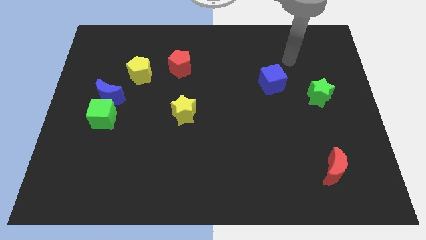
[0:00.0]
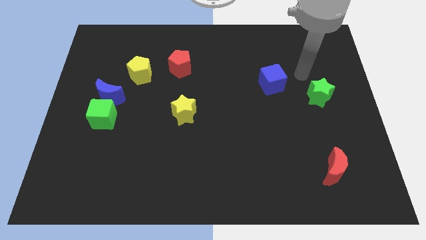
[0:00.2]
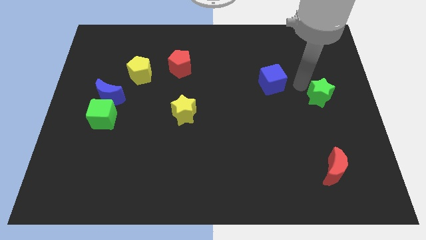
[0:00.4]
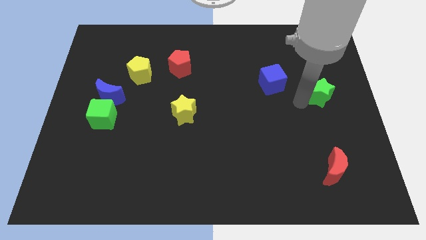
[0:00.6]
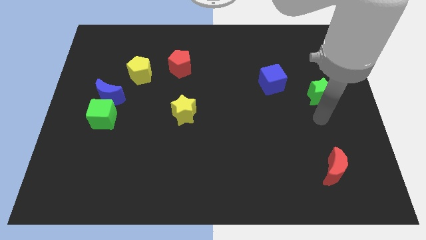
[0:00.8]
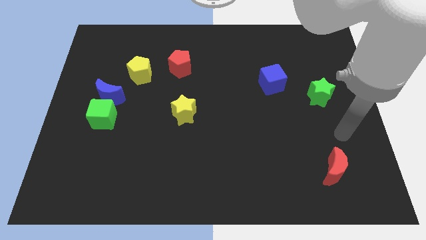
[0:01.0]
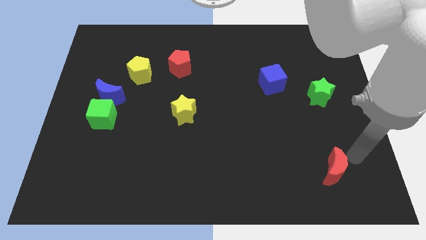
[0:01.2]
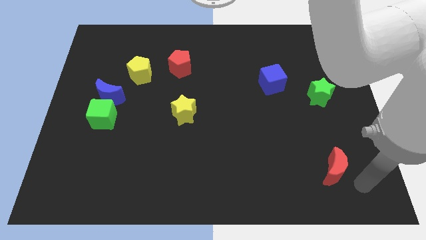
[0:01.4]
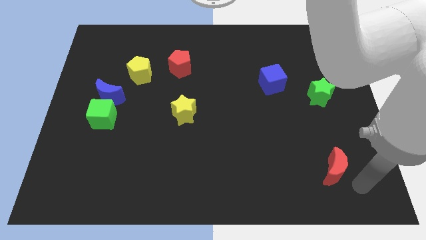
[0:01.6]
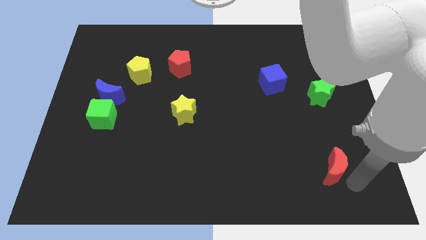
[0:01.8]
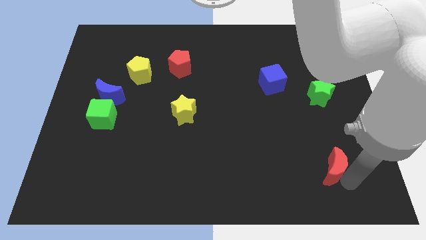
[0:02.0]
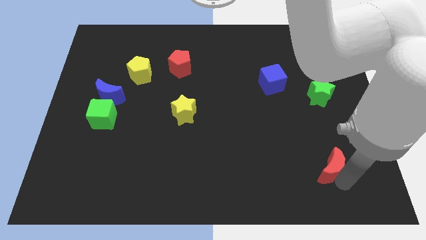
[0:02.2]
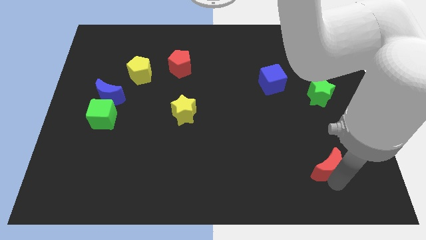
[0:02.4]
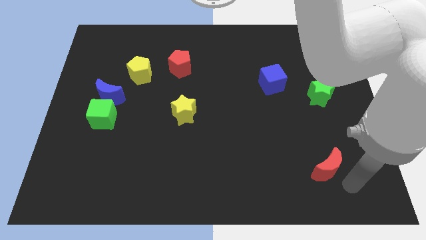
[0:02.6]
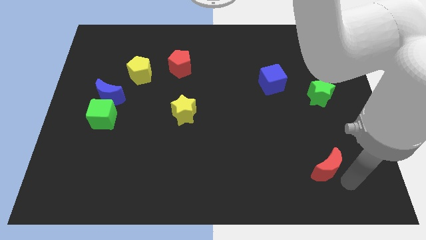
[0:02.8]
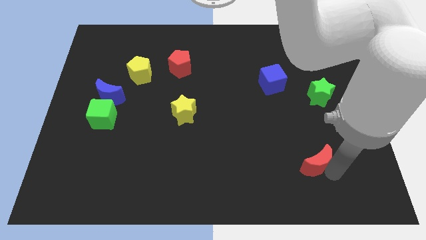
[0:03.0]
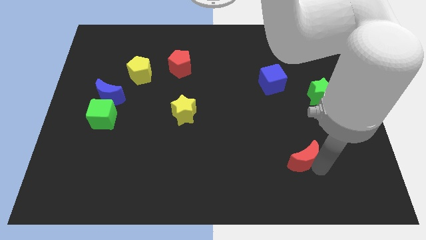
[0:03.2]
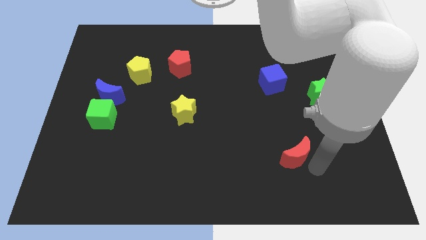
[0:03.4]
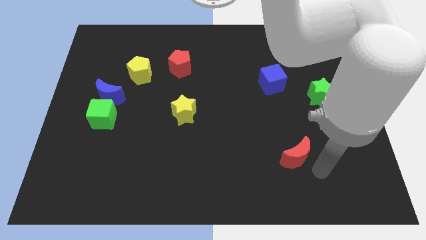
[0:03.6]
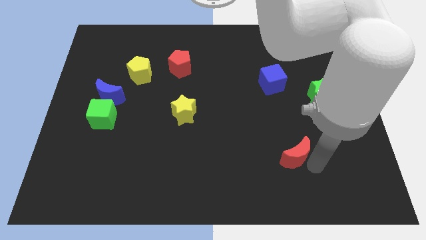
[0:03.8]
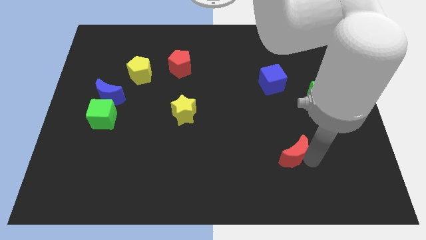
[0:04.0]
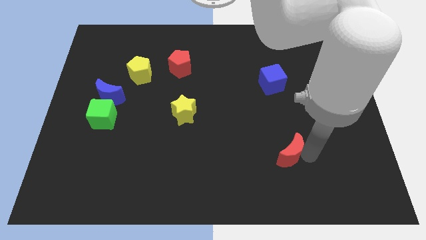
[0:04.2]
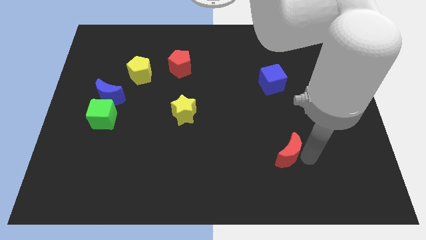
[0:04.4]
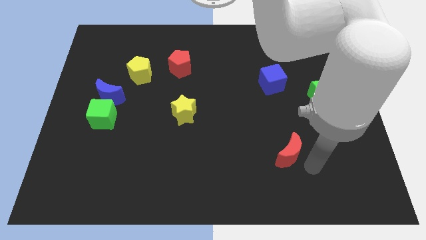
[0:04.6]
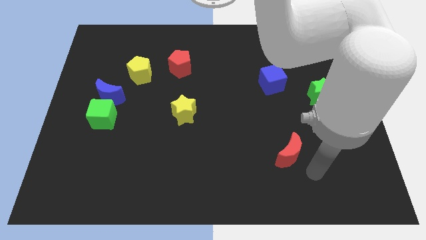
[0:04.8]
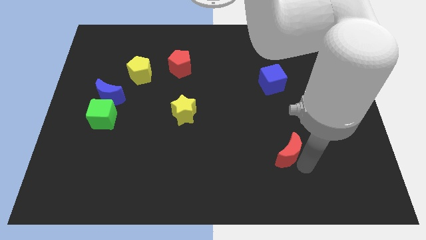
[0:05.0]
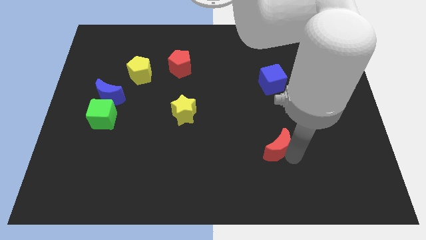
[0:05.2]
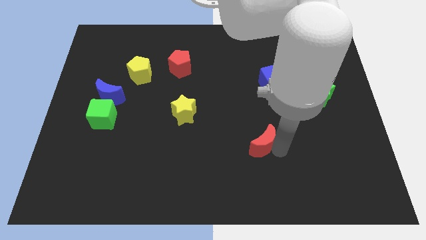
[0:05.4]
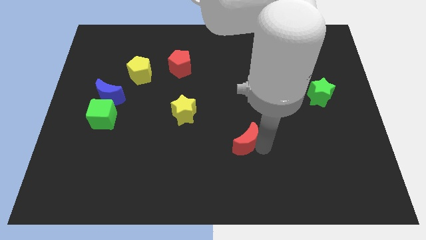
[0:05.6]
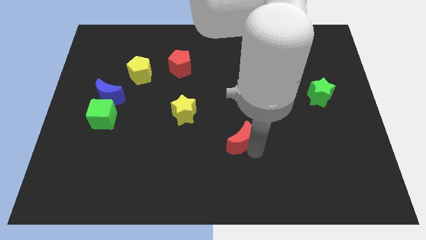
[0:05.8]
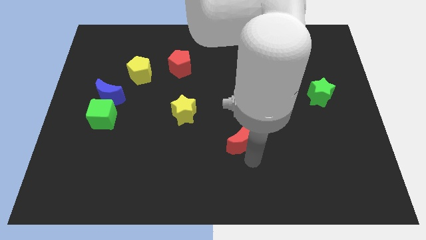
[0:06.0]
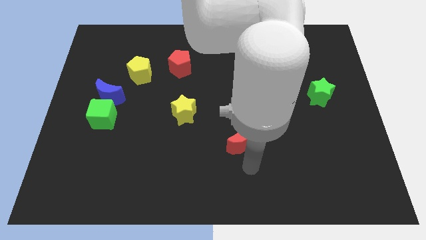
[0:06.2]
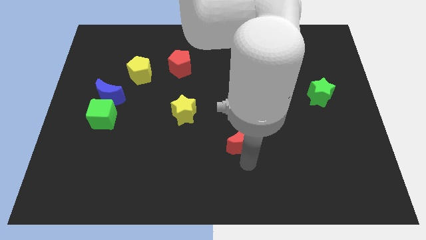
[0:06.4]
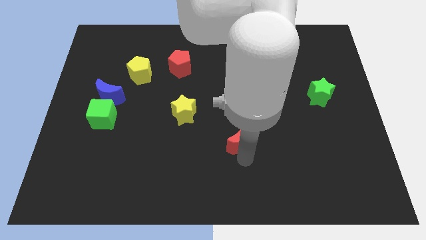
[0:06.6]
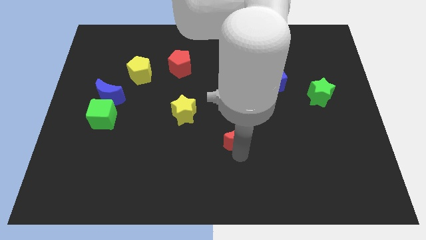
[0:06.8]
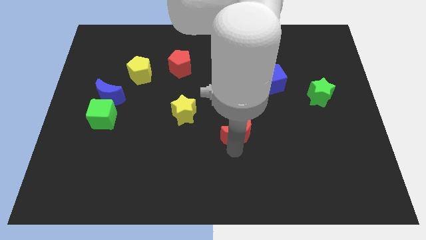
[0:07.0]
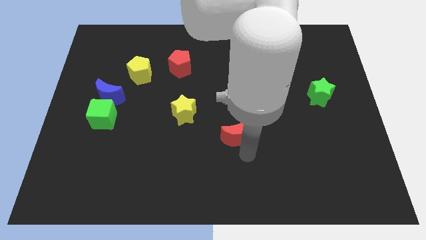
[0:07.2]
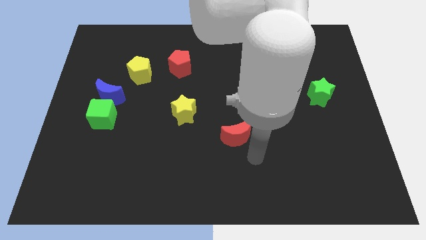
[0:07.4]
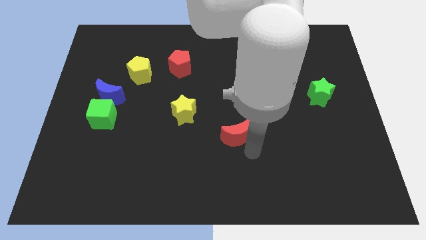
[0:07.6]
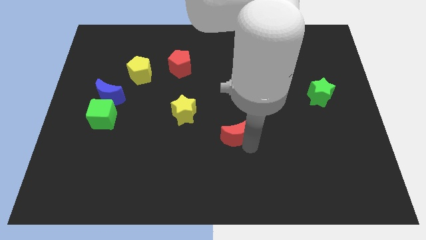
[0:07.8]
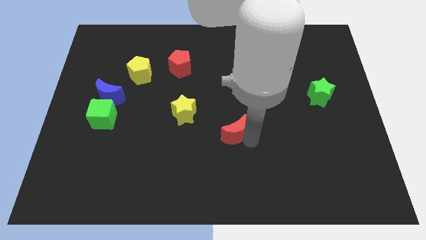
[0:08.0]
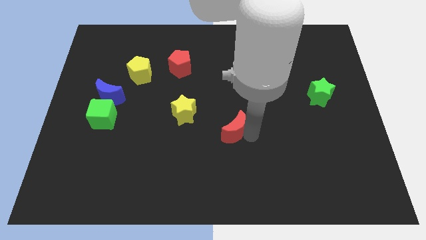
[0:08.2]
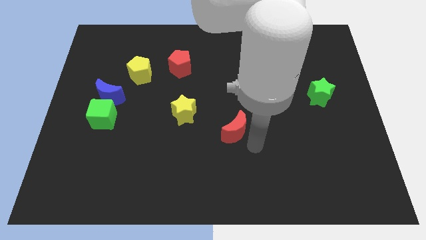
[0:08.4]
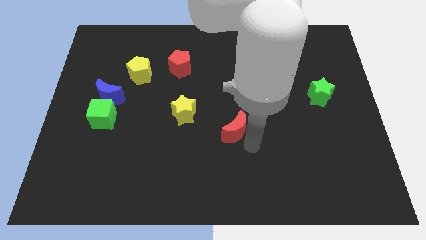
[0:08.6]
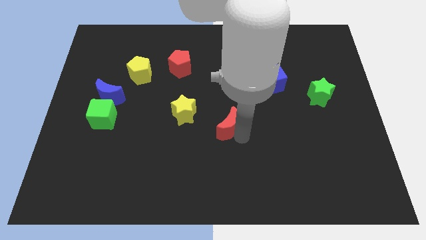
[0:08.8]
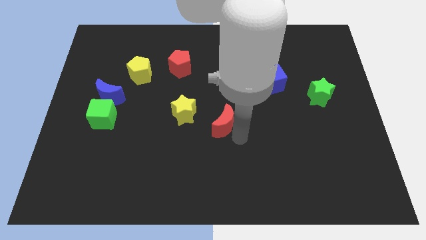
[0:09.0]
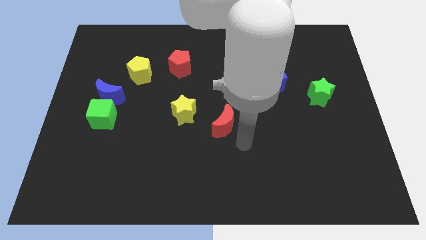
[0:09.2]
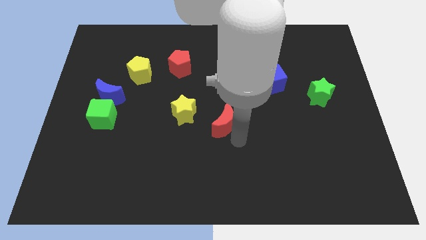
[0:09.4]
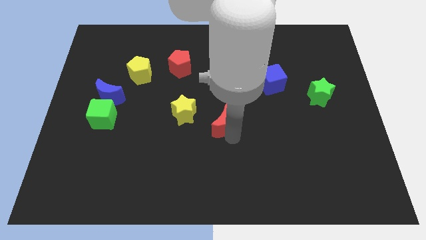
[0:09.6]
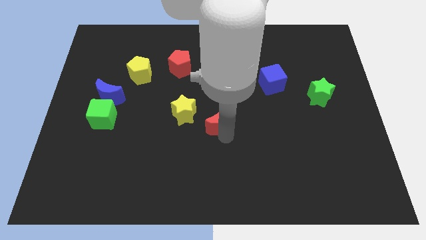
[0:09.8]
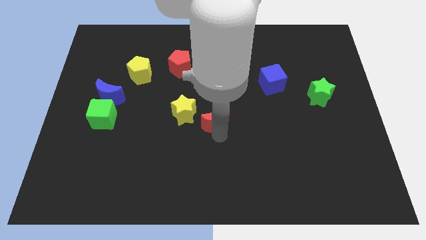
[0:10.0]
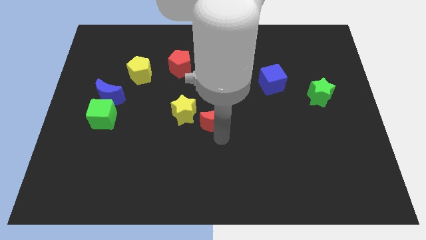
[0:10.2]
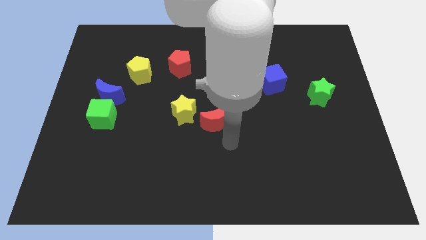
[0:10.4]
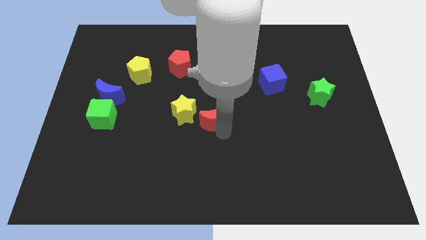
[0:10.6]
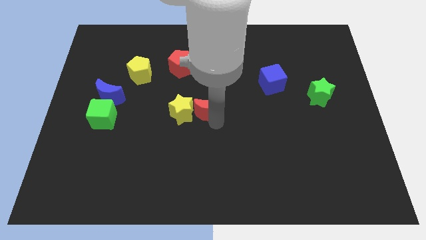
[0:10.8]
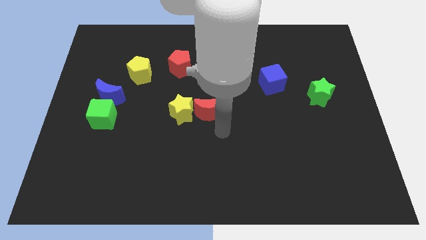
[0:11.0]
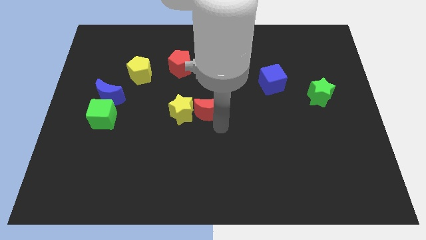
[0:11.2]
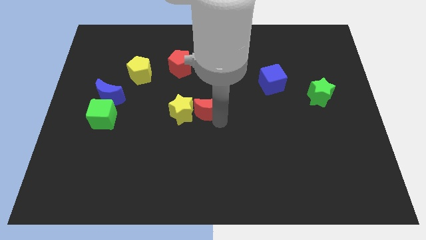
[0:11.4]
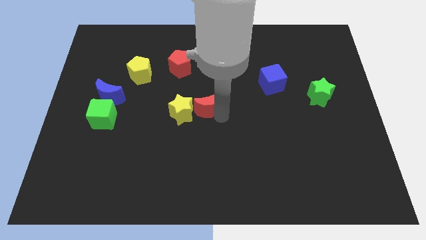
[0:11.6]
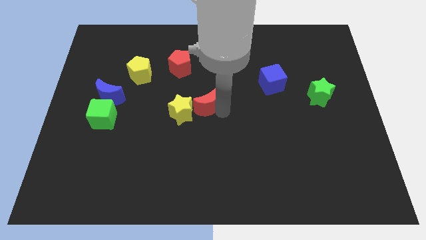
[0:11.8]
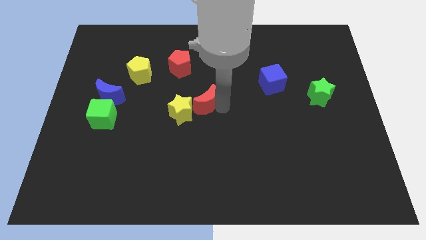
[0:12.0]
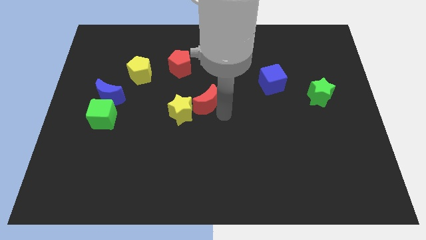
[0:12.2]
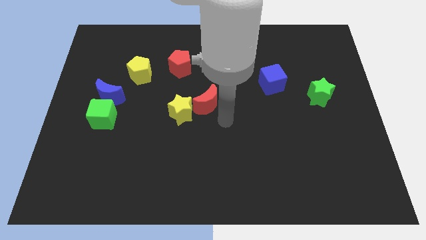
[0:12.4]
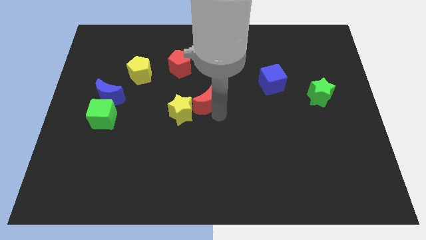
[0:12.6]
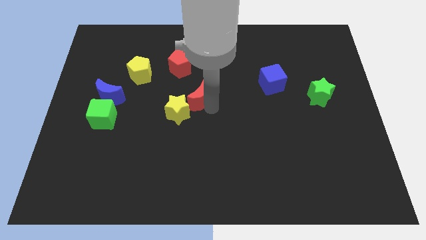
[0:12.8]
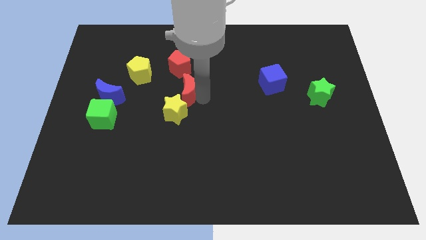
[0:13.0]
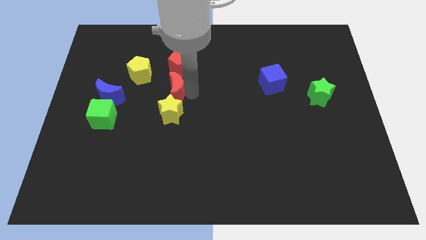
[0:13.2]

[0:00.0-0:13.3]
slide the red moon diagonally down and to the right of the yellow pentagon

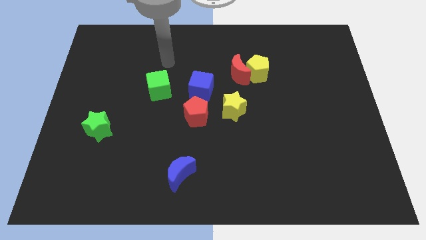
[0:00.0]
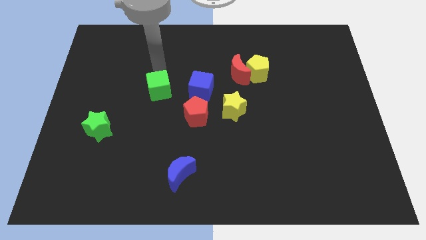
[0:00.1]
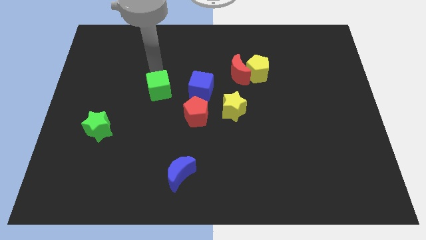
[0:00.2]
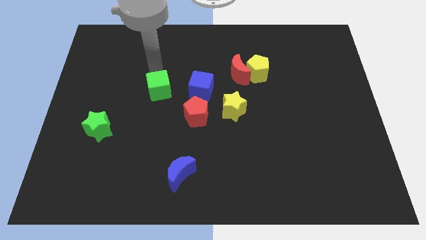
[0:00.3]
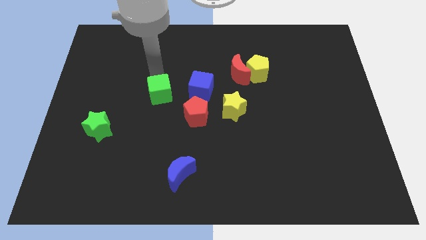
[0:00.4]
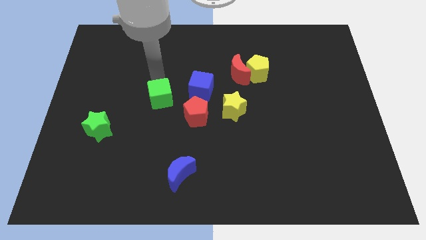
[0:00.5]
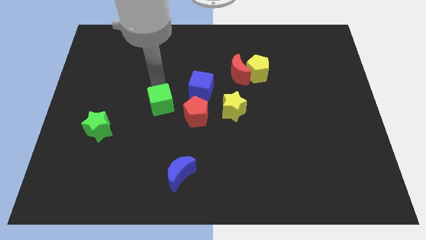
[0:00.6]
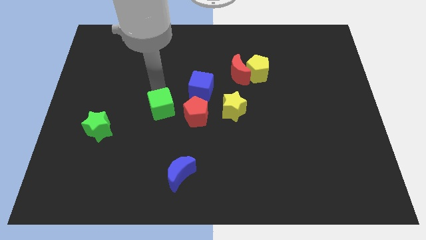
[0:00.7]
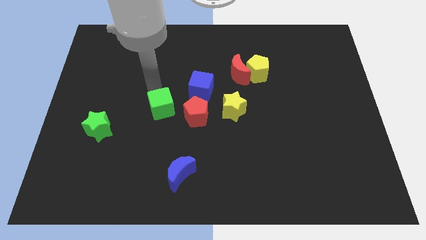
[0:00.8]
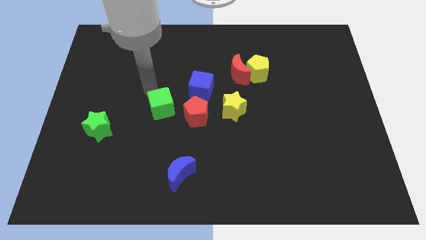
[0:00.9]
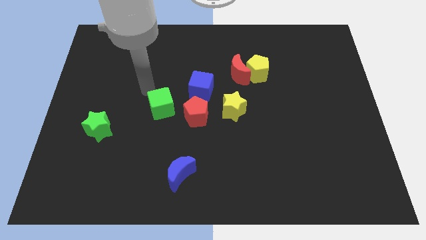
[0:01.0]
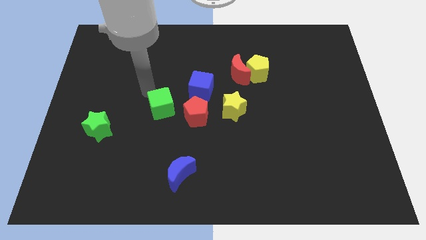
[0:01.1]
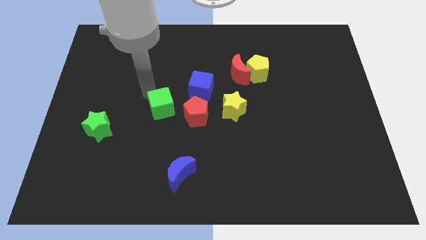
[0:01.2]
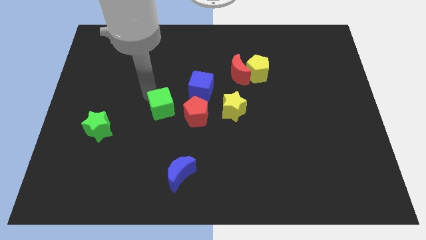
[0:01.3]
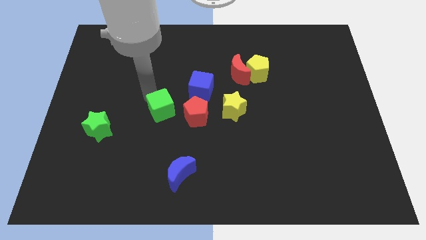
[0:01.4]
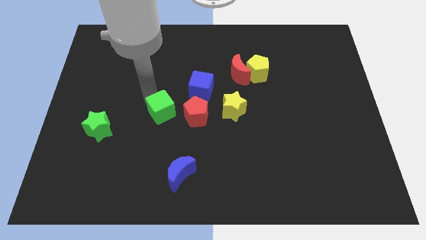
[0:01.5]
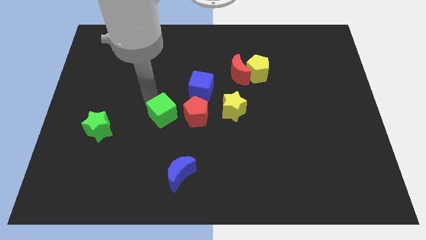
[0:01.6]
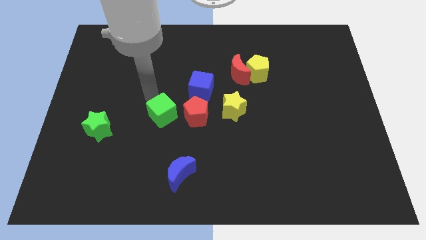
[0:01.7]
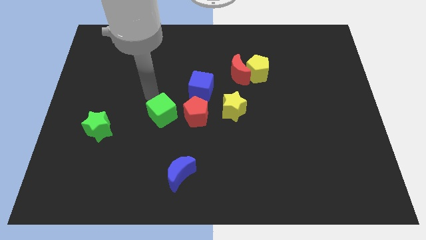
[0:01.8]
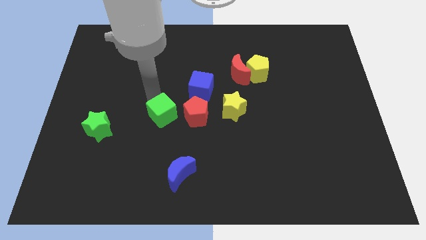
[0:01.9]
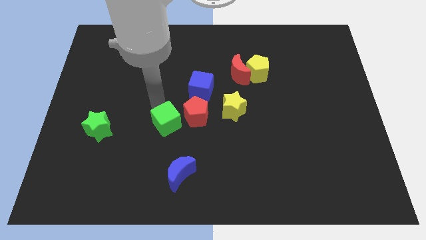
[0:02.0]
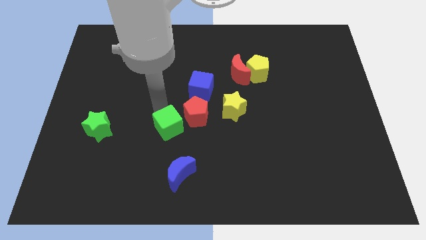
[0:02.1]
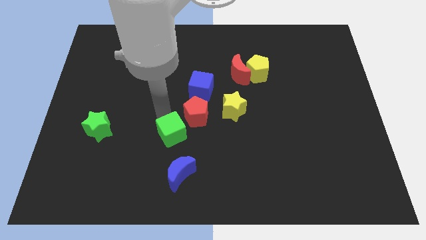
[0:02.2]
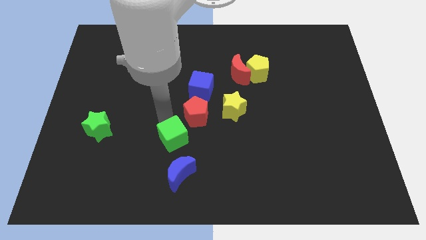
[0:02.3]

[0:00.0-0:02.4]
push the green cube below the red pentagon
